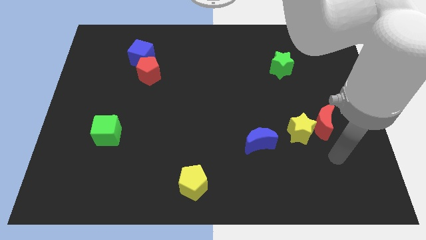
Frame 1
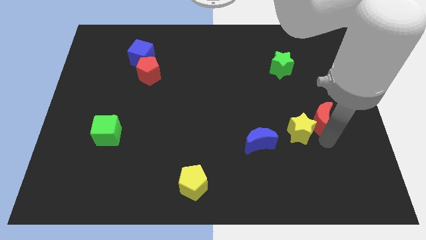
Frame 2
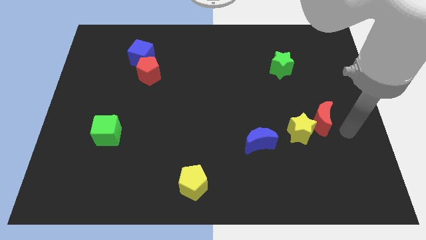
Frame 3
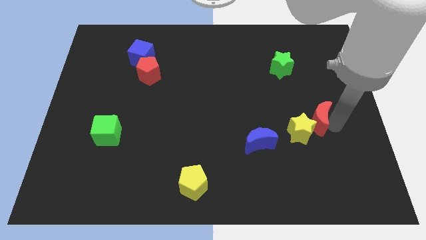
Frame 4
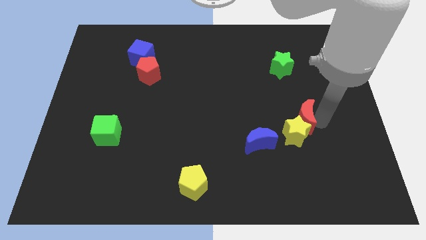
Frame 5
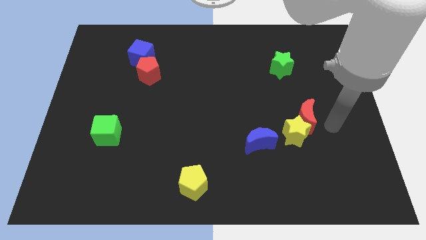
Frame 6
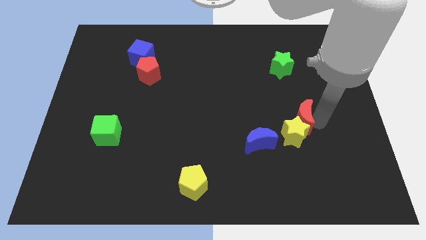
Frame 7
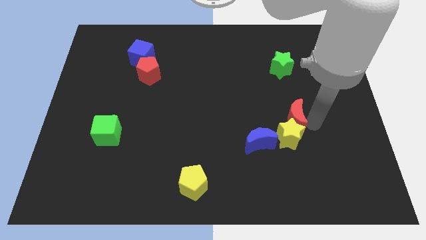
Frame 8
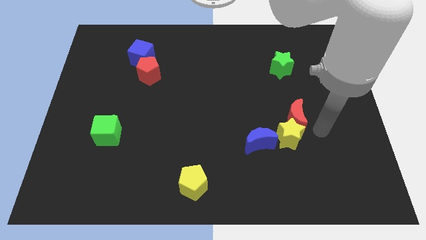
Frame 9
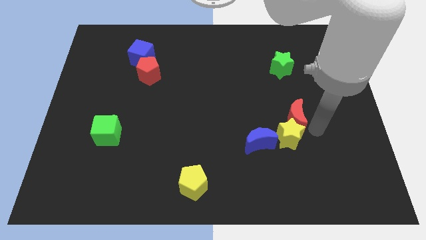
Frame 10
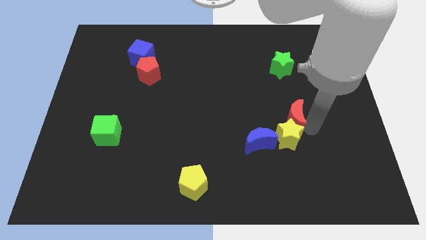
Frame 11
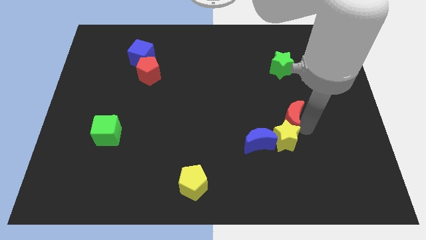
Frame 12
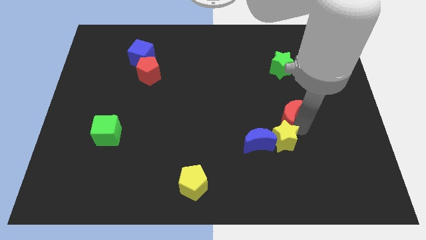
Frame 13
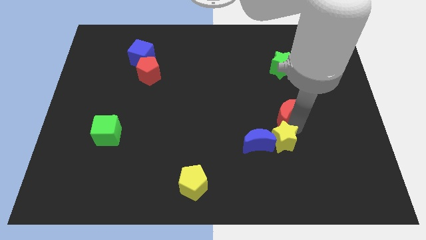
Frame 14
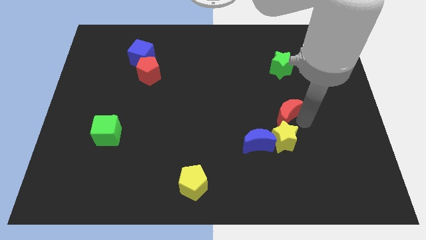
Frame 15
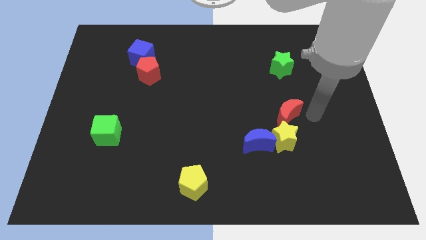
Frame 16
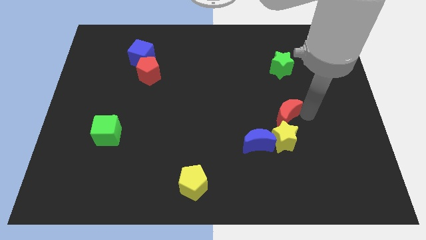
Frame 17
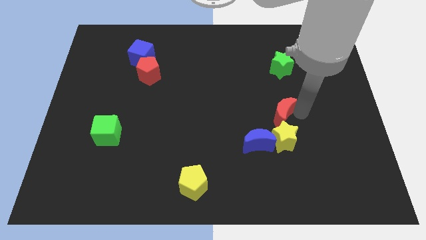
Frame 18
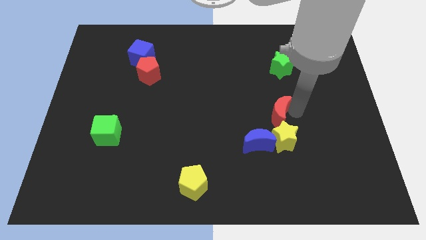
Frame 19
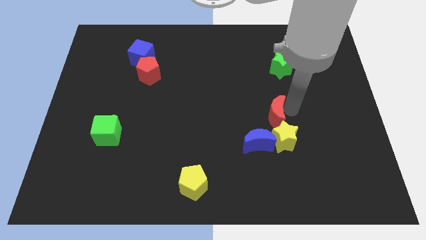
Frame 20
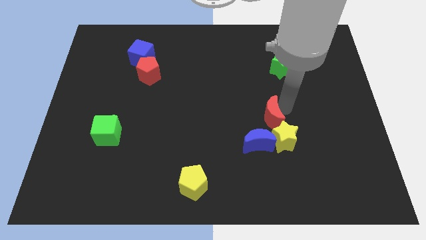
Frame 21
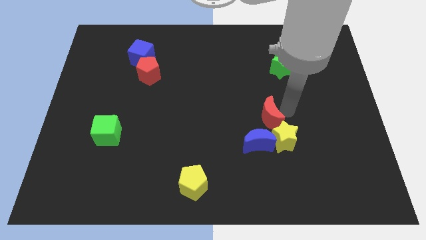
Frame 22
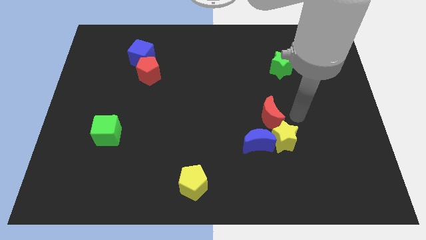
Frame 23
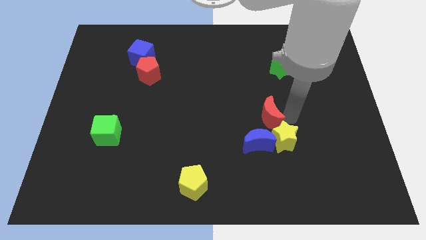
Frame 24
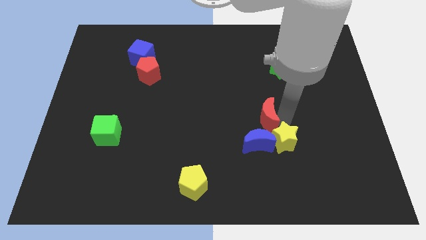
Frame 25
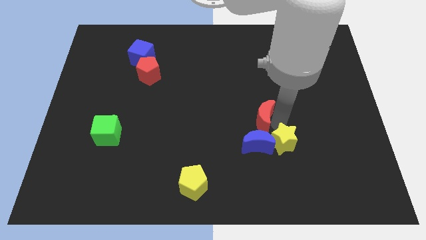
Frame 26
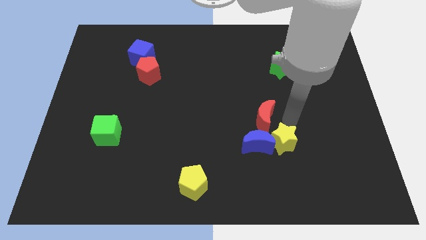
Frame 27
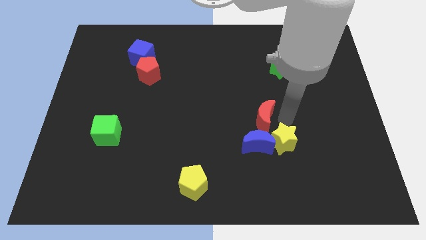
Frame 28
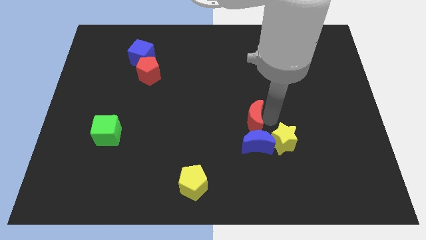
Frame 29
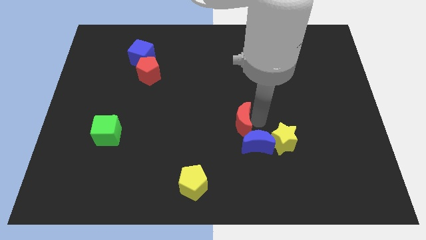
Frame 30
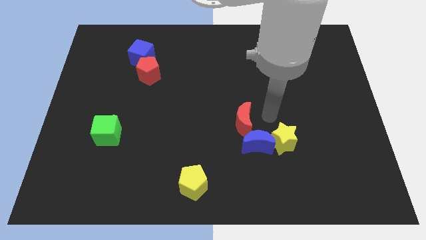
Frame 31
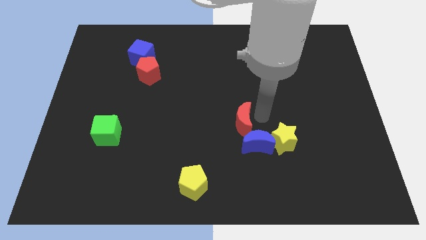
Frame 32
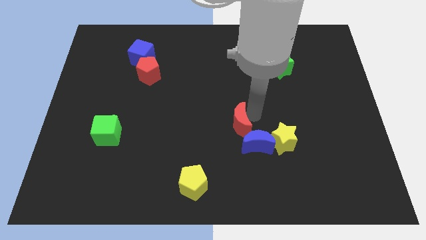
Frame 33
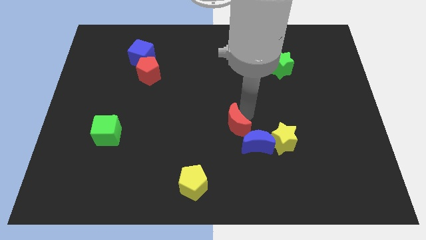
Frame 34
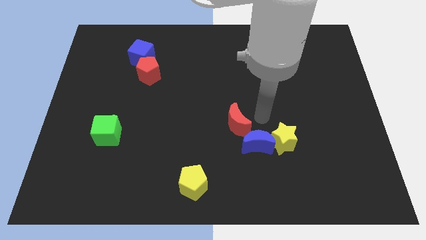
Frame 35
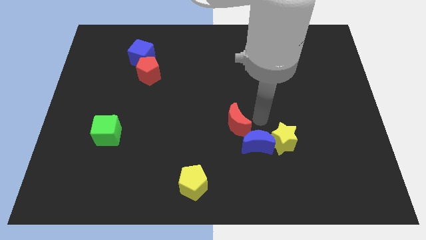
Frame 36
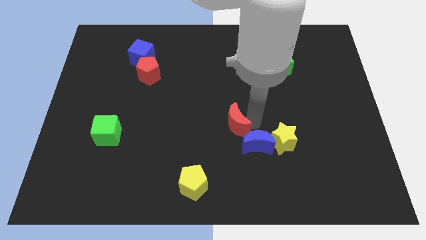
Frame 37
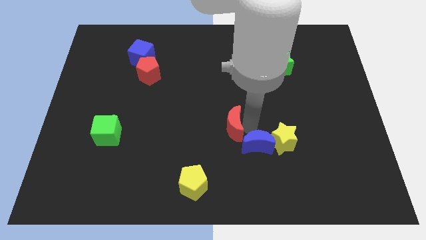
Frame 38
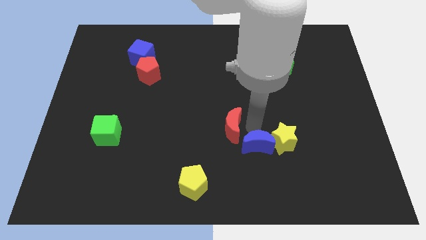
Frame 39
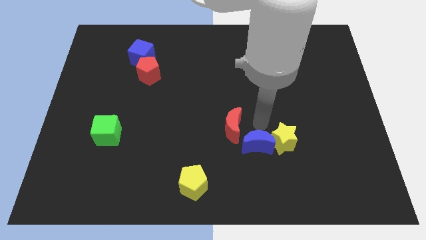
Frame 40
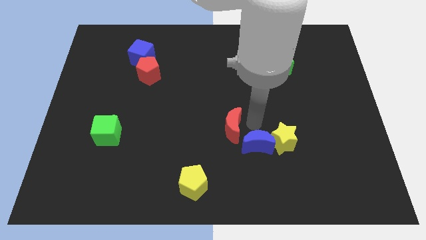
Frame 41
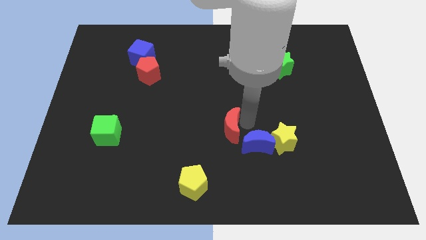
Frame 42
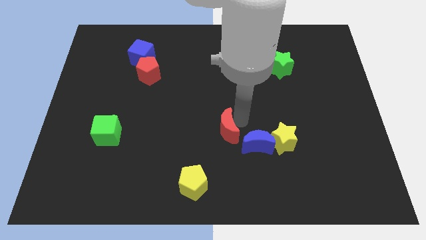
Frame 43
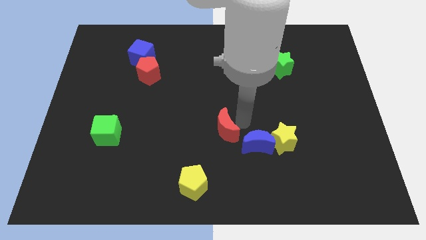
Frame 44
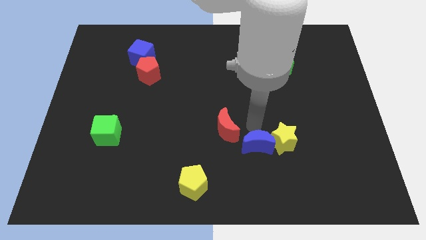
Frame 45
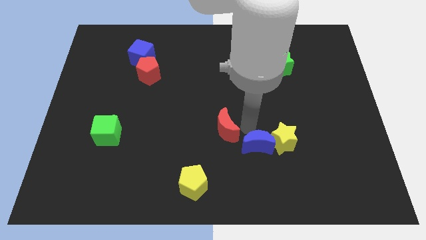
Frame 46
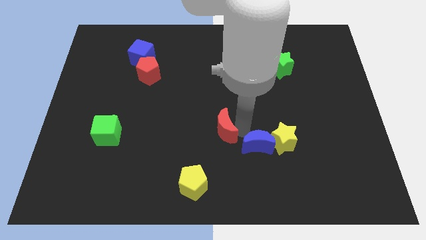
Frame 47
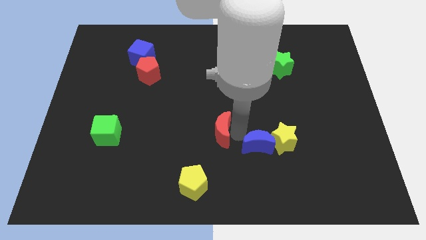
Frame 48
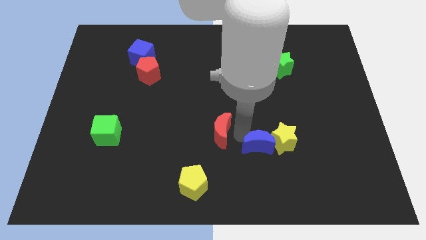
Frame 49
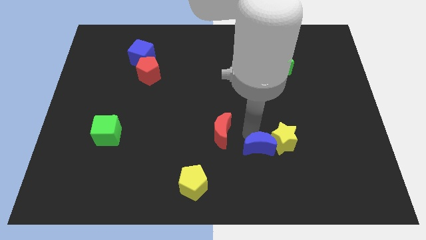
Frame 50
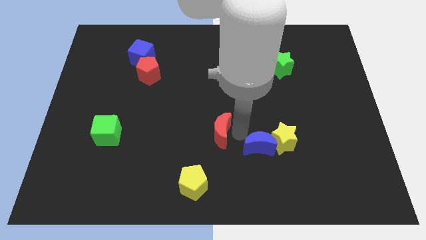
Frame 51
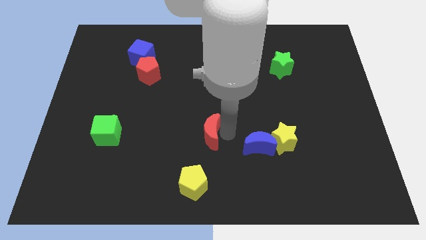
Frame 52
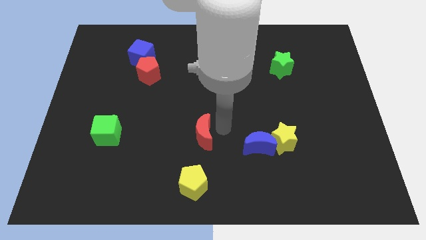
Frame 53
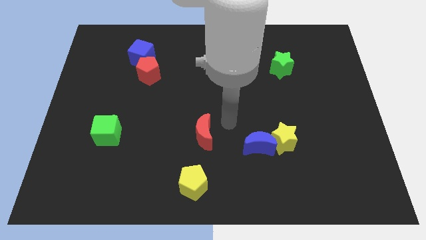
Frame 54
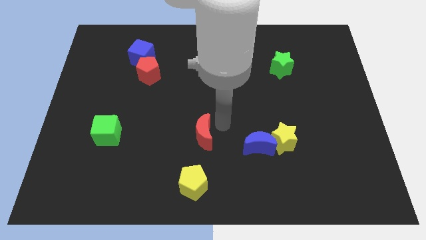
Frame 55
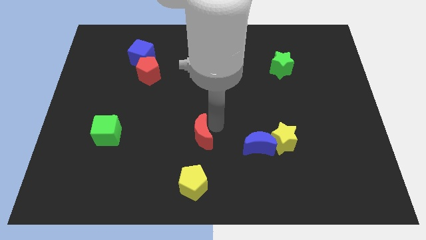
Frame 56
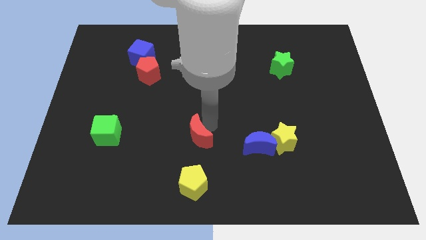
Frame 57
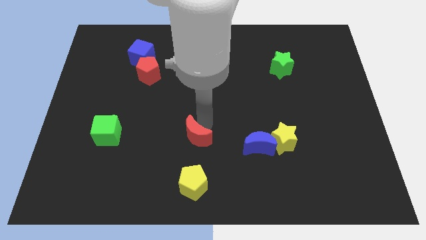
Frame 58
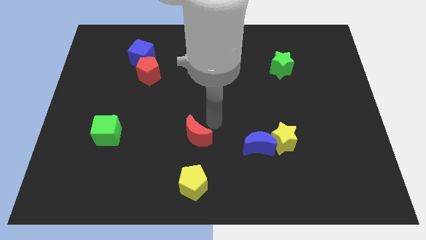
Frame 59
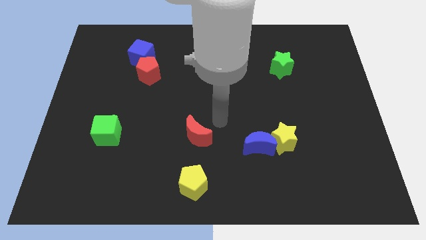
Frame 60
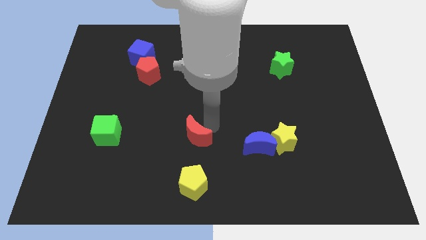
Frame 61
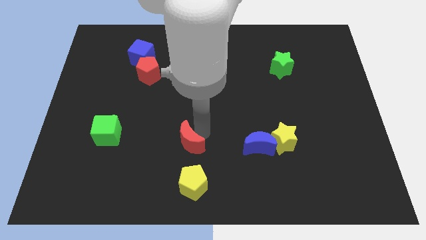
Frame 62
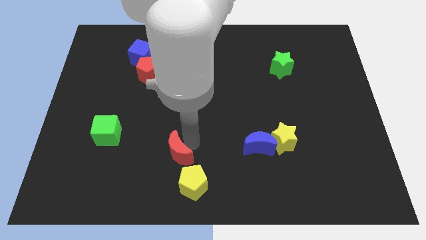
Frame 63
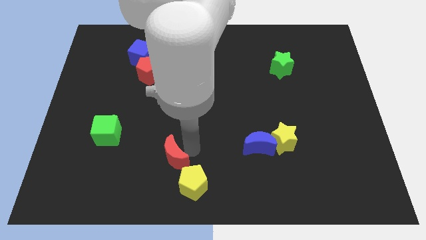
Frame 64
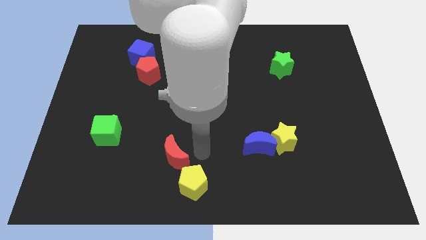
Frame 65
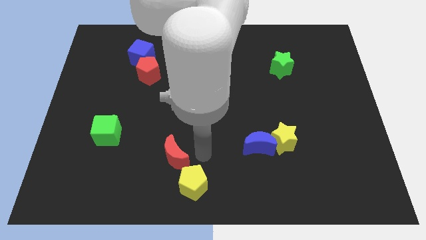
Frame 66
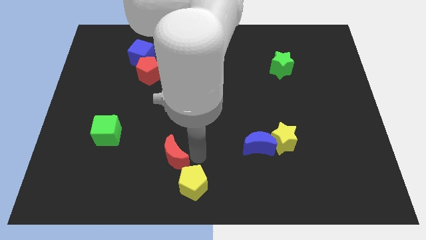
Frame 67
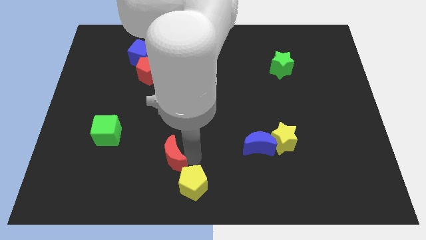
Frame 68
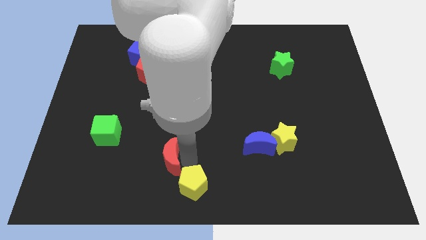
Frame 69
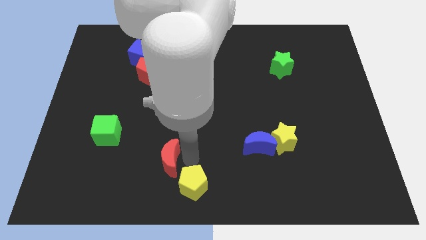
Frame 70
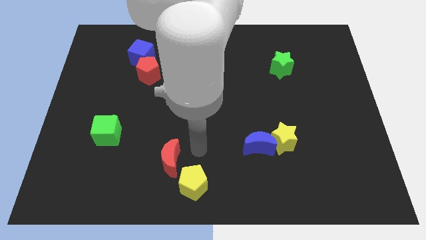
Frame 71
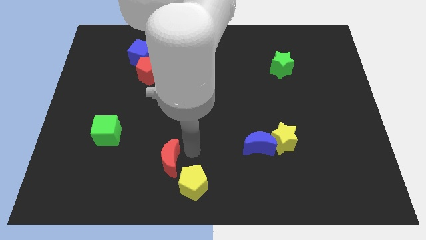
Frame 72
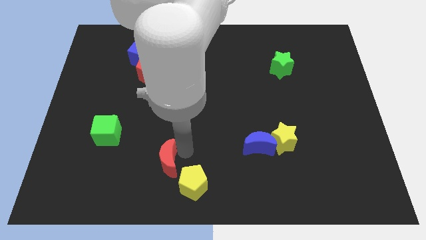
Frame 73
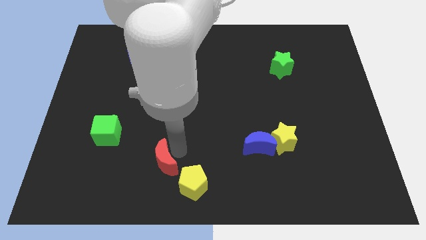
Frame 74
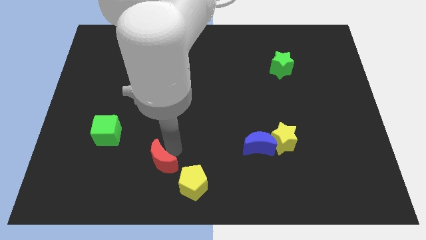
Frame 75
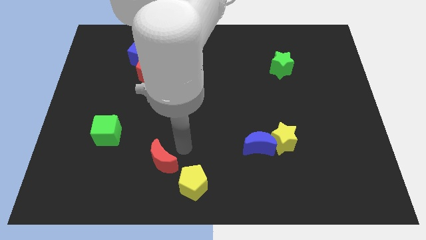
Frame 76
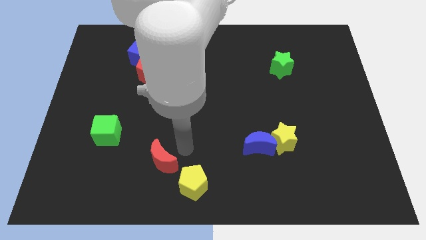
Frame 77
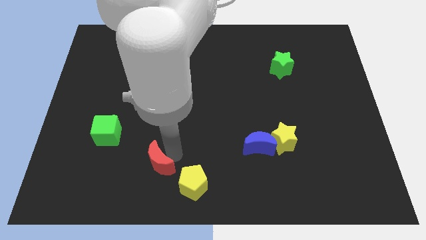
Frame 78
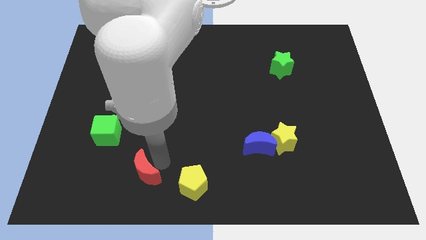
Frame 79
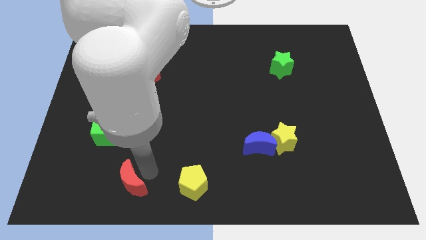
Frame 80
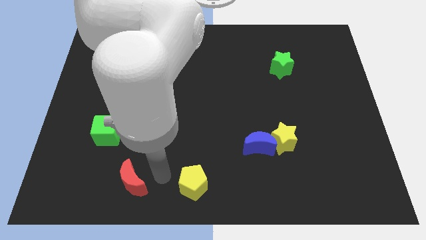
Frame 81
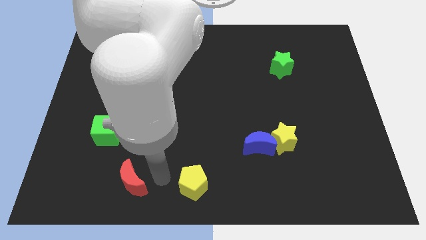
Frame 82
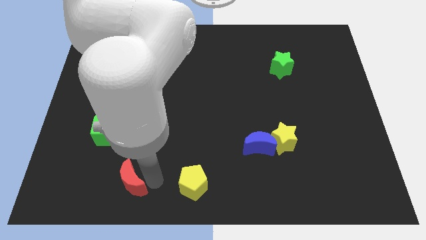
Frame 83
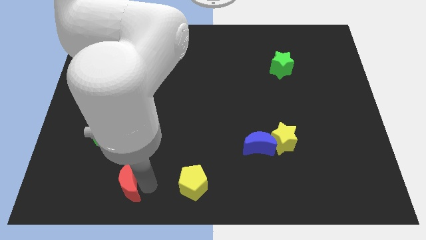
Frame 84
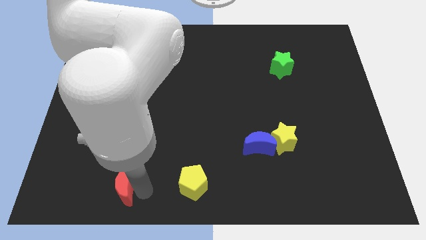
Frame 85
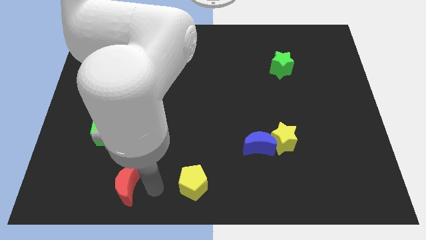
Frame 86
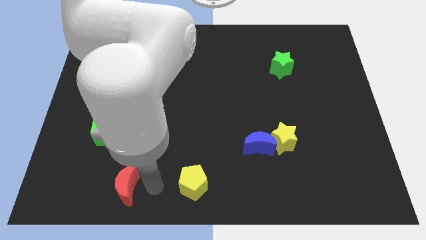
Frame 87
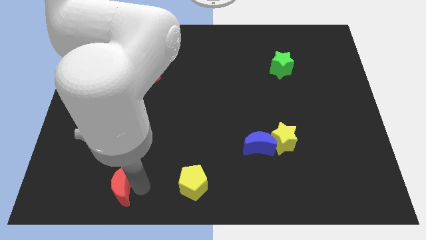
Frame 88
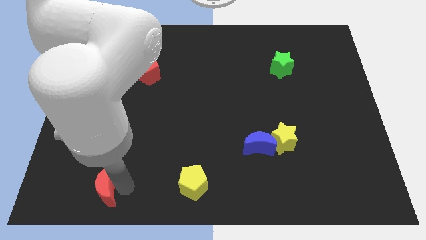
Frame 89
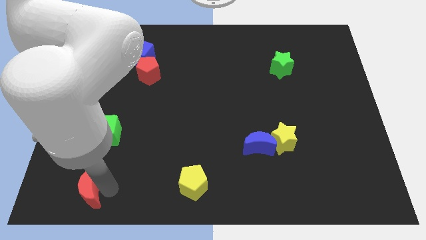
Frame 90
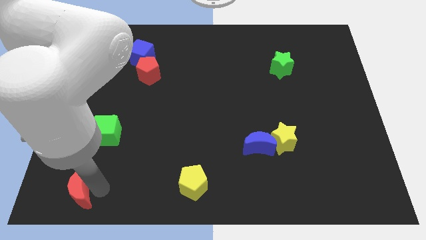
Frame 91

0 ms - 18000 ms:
slide the red moon to the bottom left of the board
